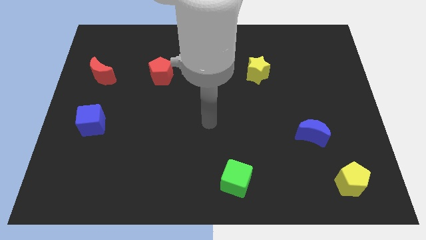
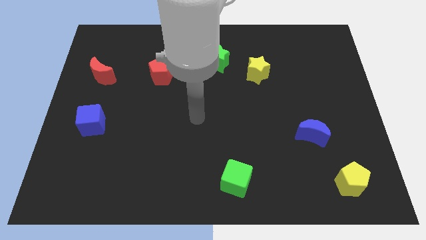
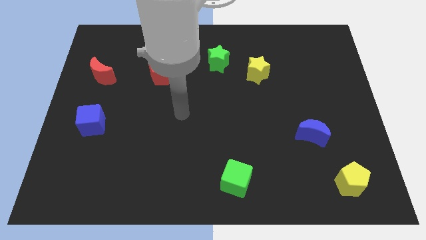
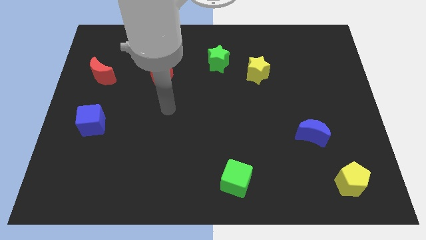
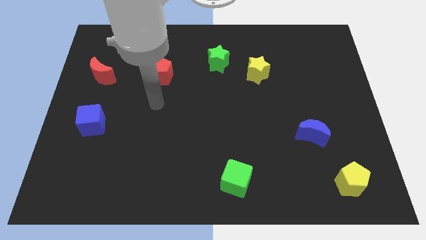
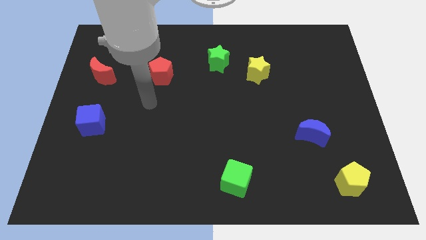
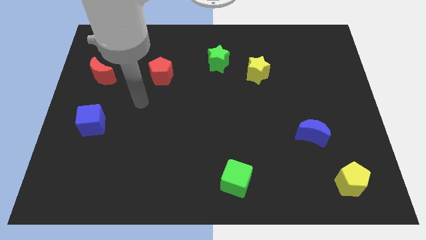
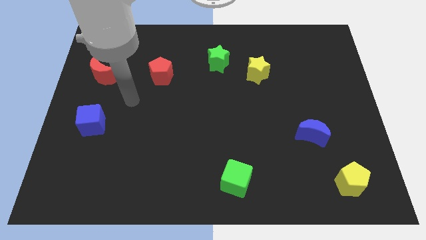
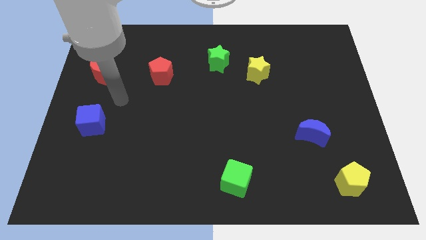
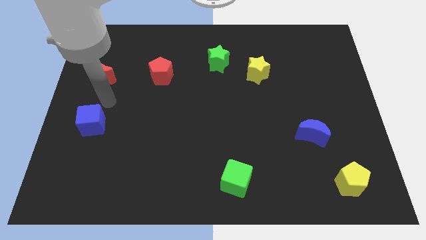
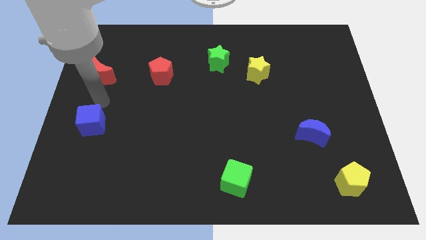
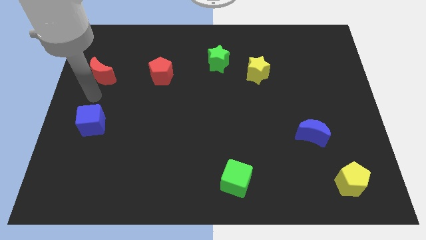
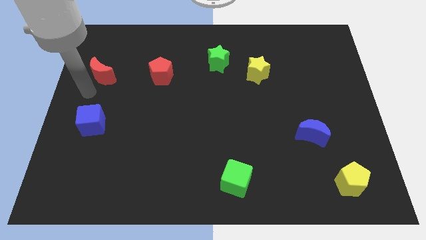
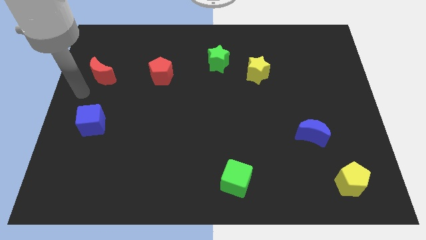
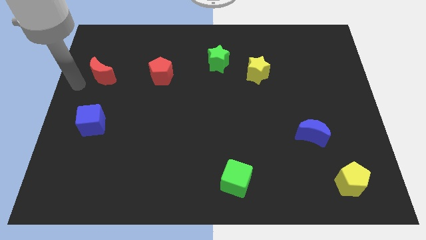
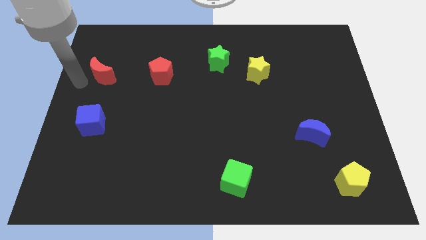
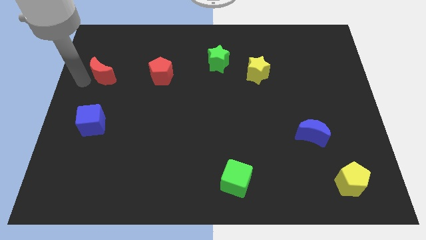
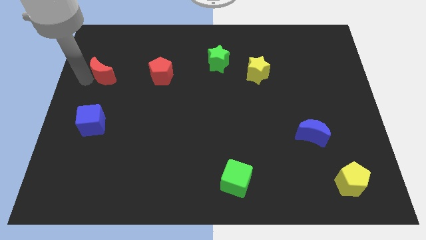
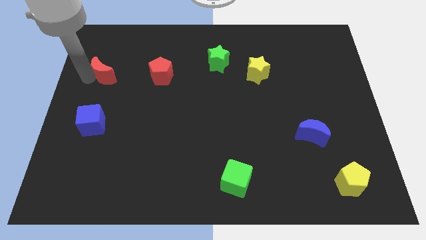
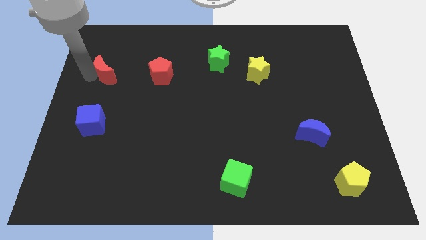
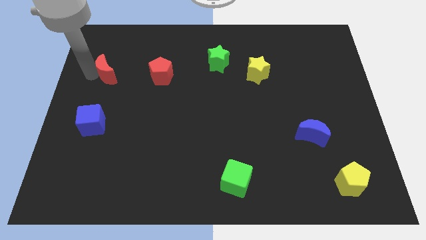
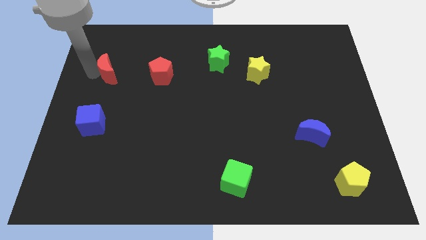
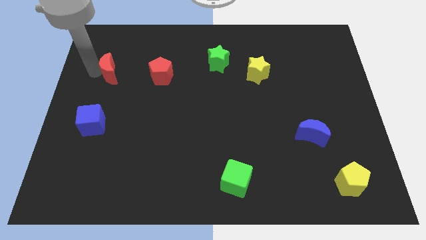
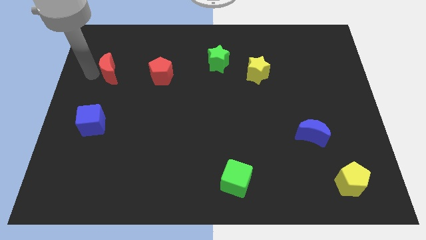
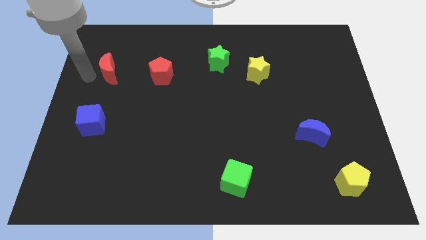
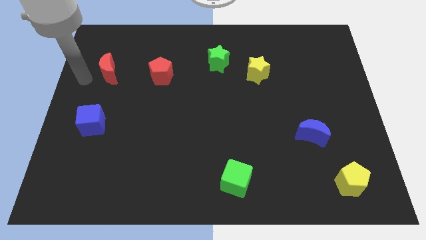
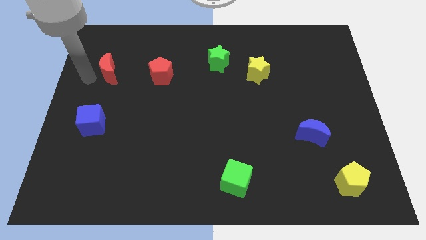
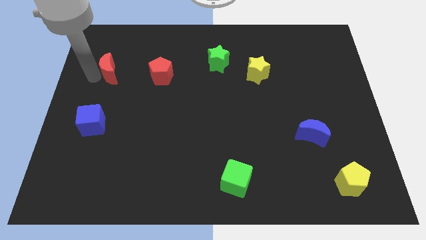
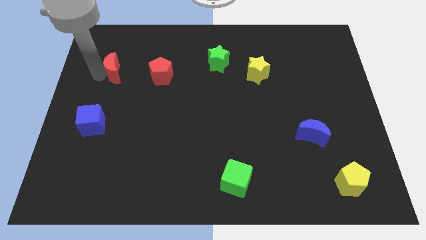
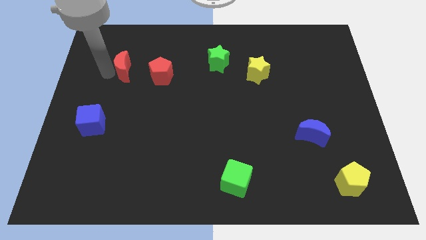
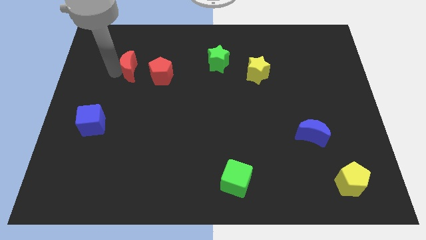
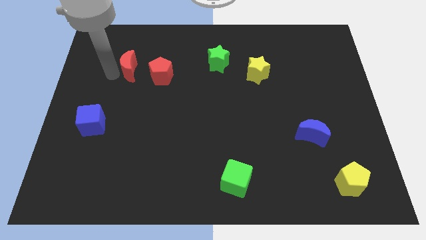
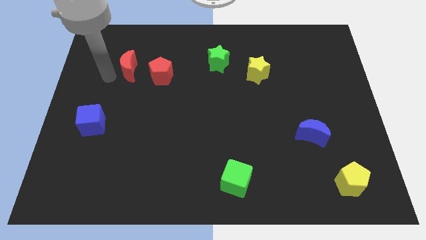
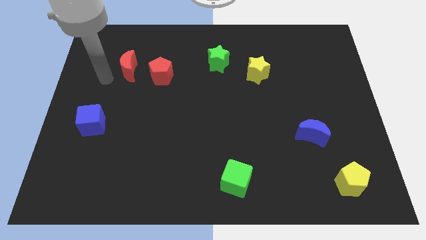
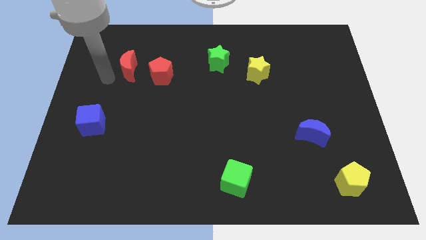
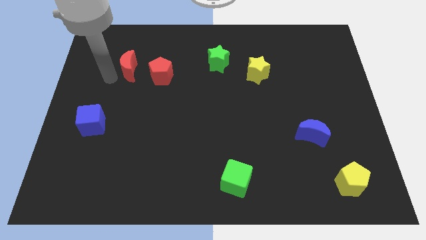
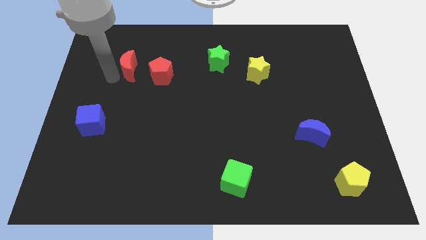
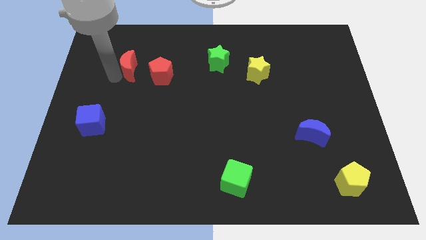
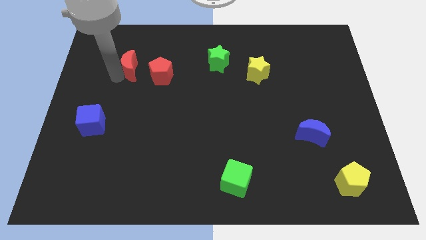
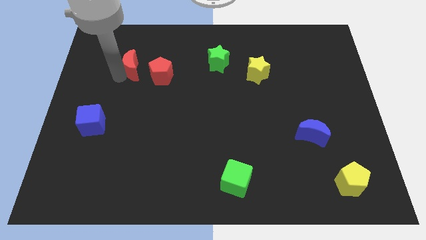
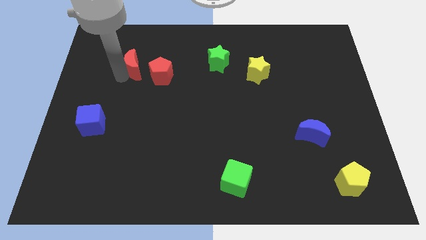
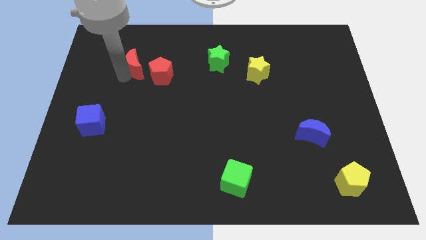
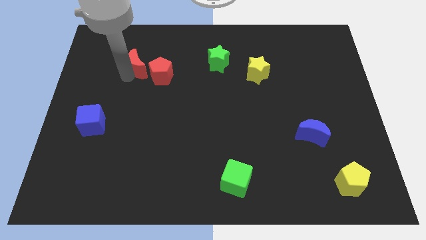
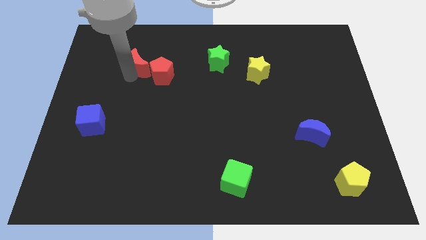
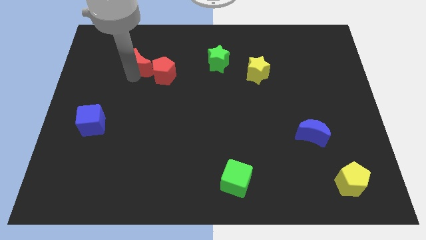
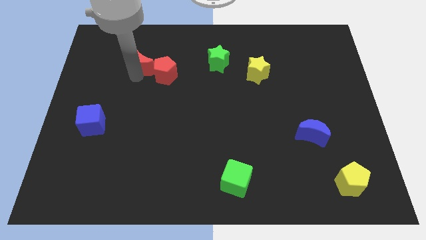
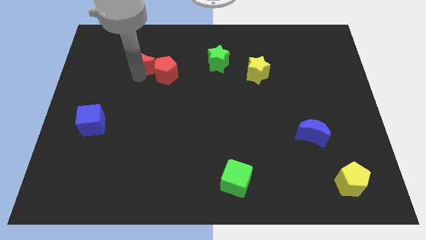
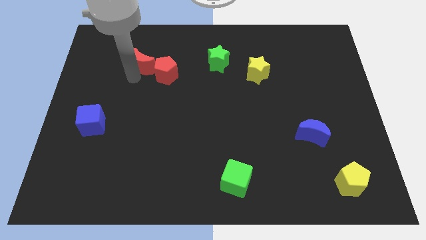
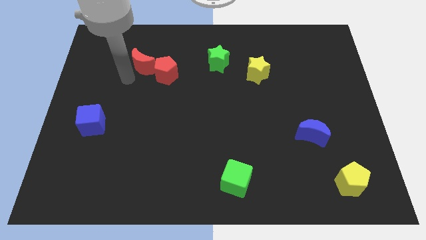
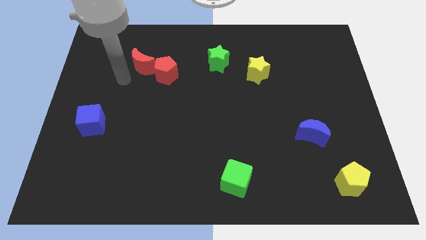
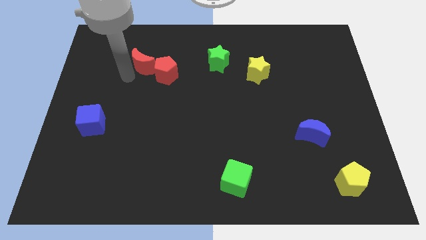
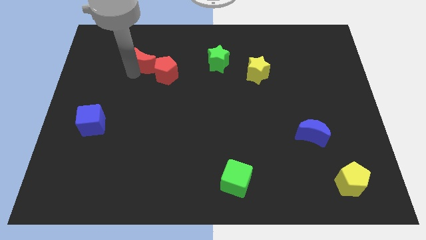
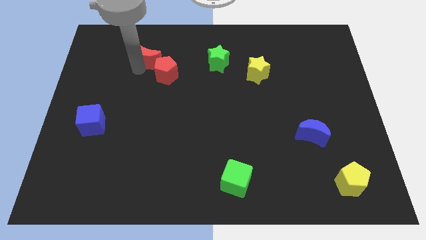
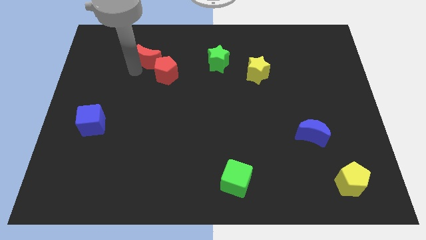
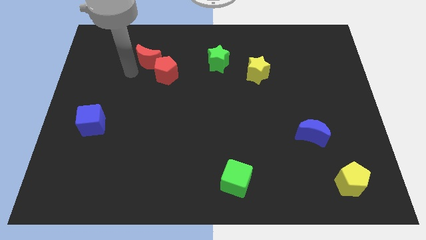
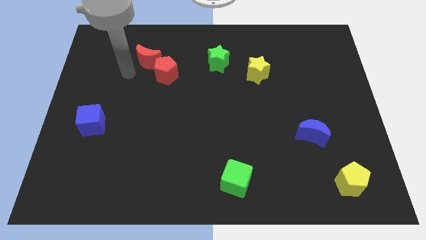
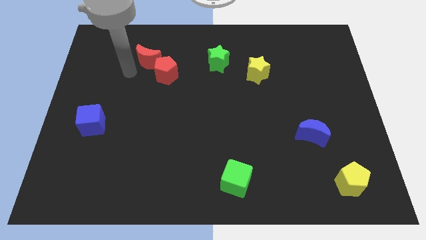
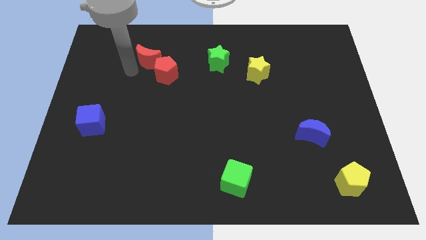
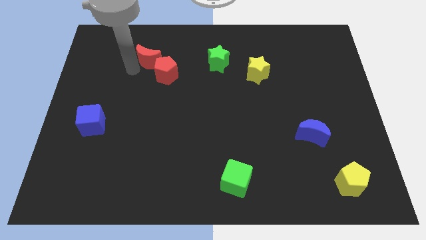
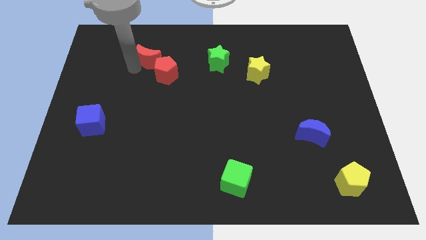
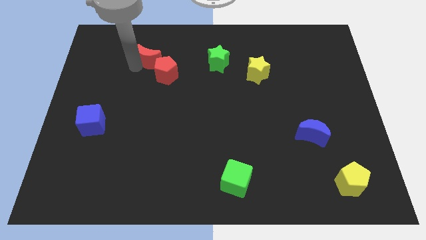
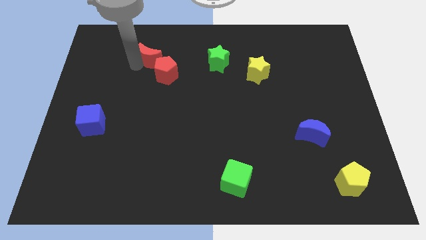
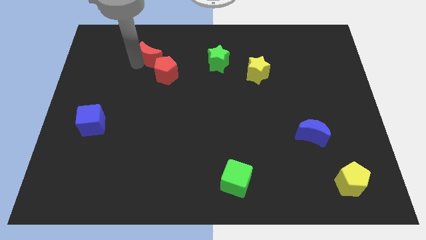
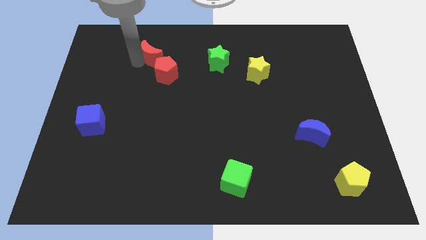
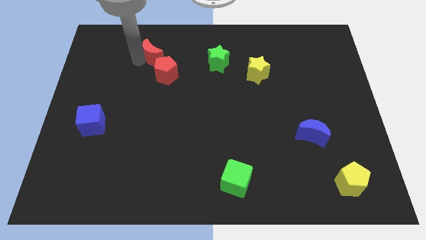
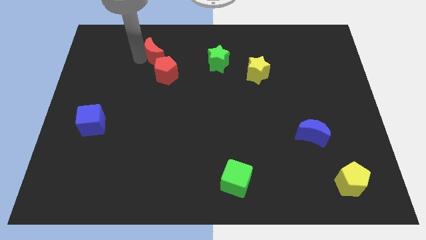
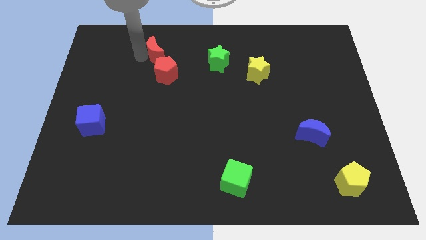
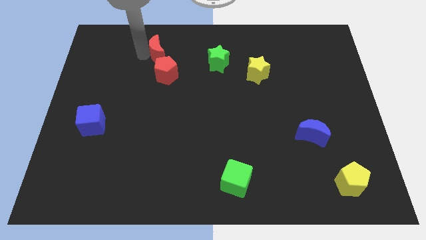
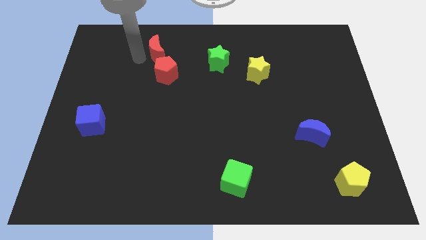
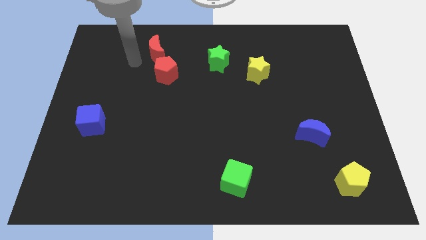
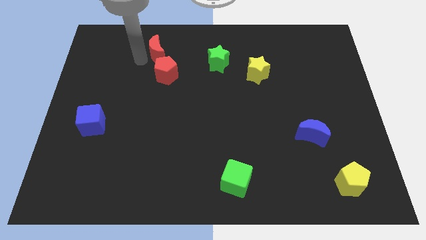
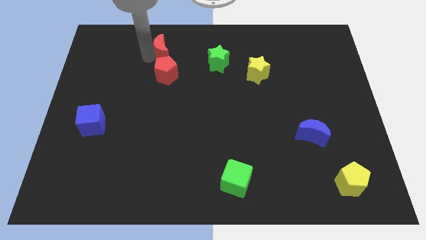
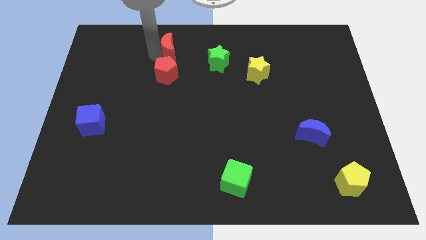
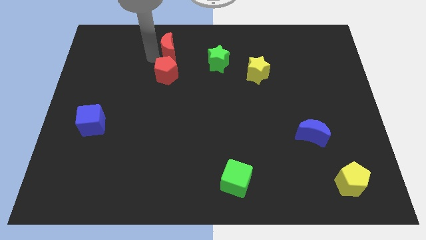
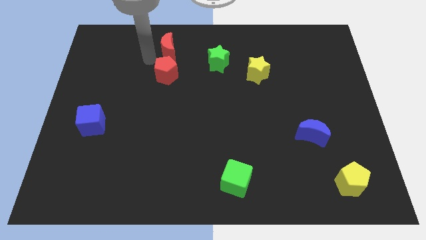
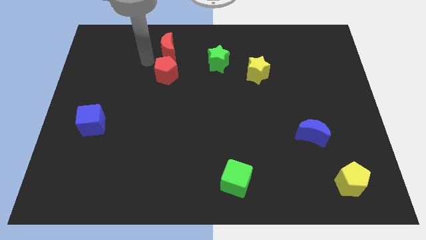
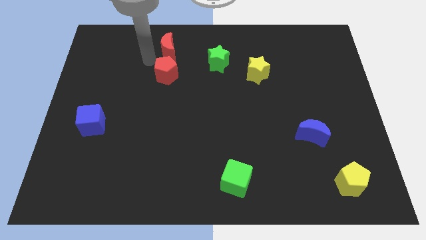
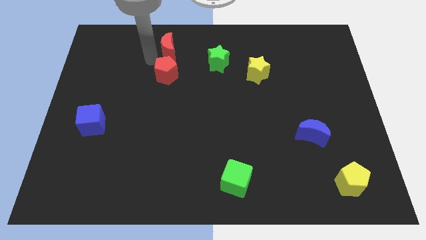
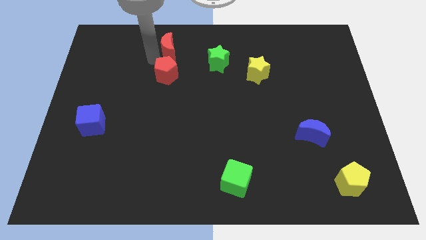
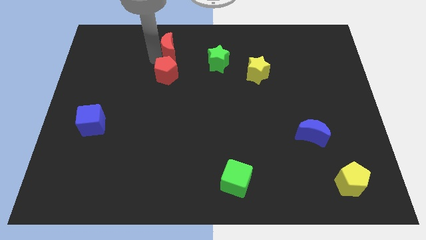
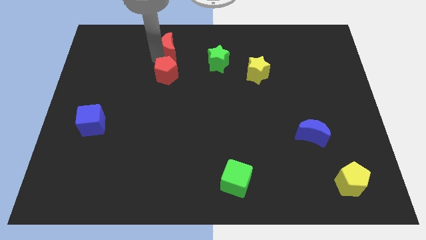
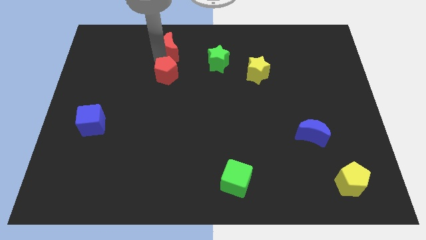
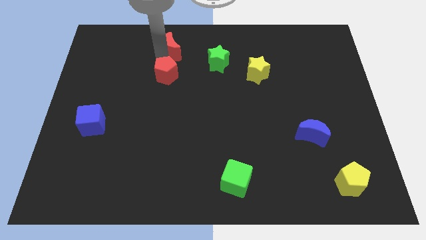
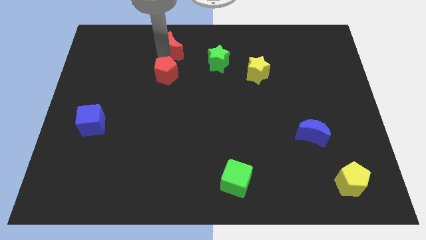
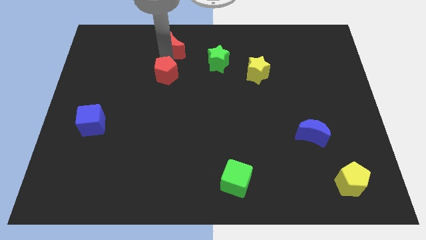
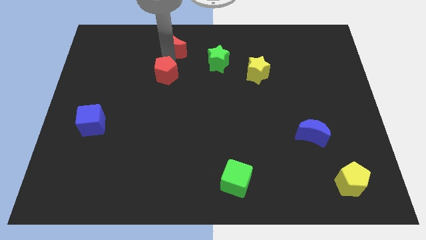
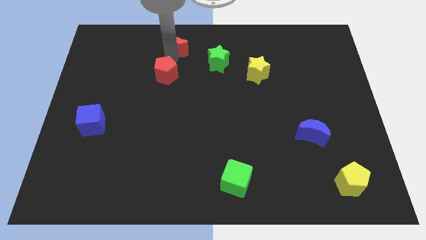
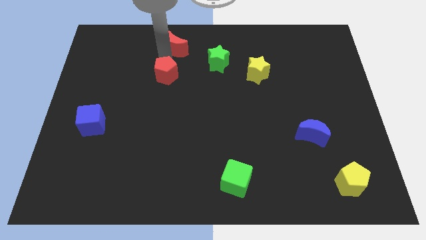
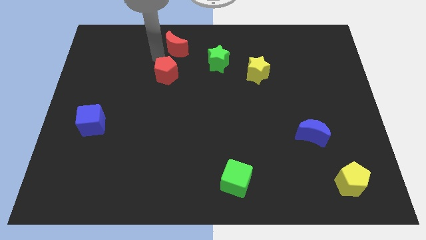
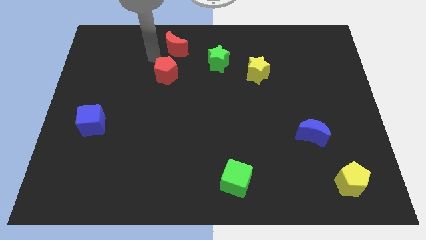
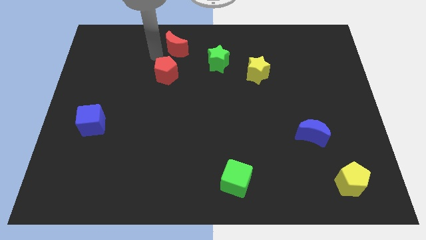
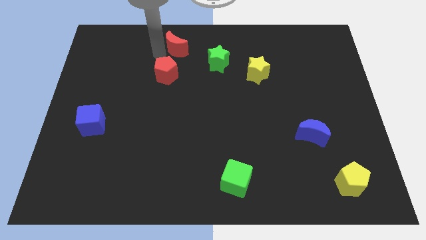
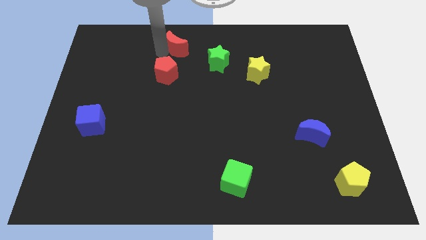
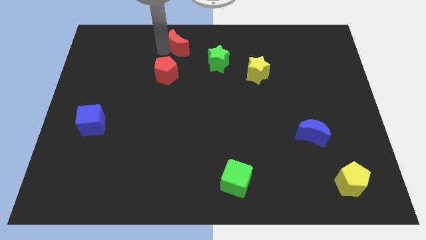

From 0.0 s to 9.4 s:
slide the red moon to the top side
